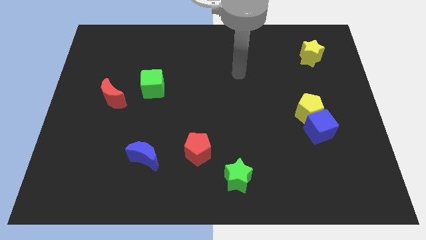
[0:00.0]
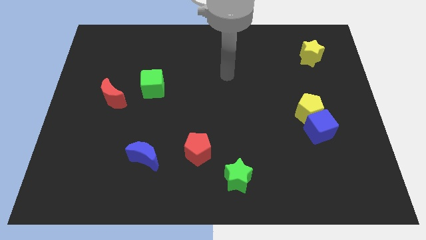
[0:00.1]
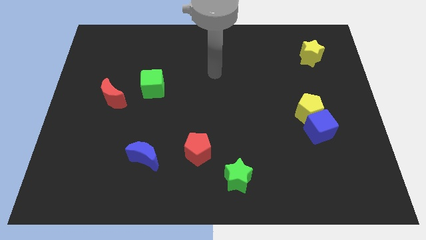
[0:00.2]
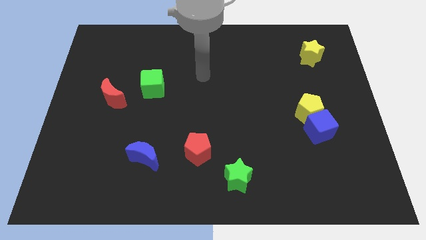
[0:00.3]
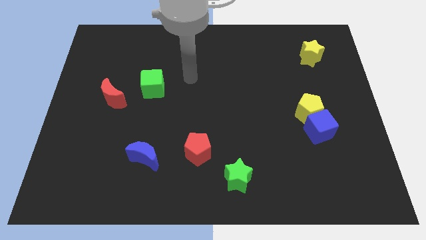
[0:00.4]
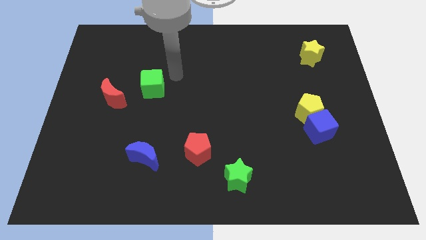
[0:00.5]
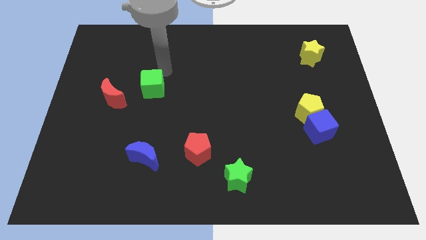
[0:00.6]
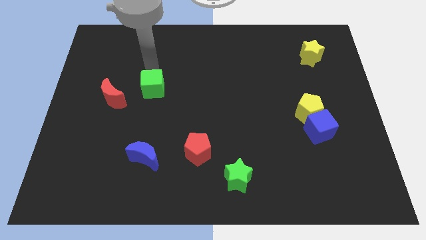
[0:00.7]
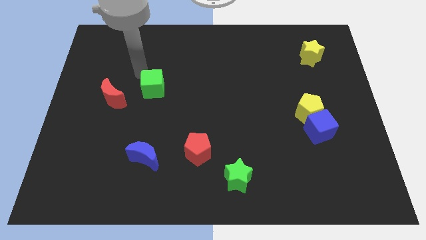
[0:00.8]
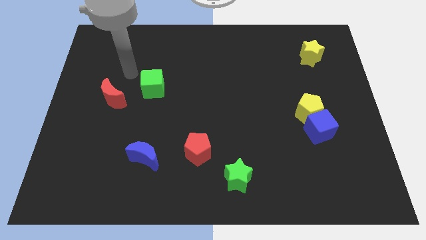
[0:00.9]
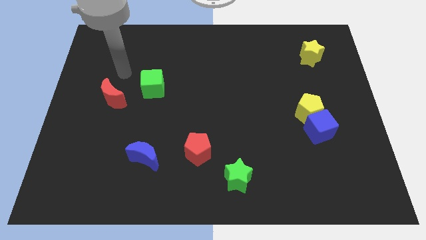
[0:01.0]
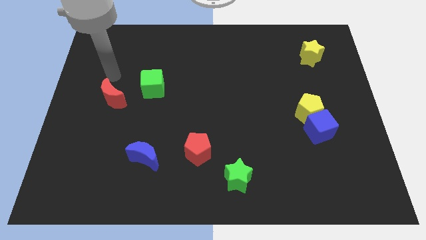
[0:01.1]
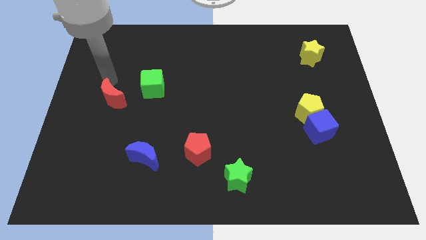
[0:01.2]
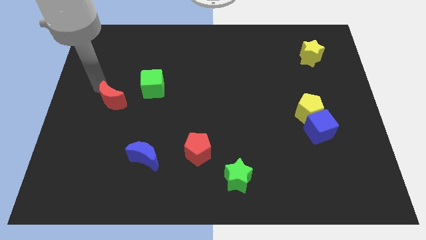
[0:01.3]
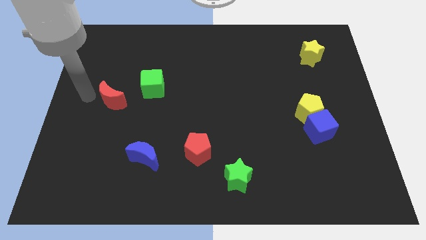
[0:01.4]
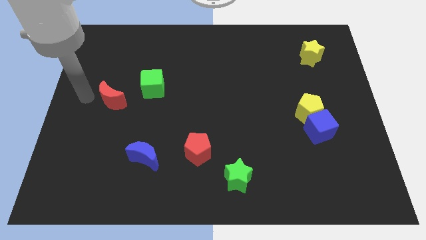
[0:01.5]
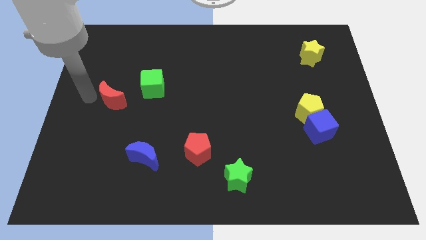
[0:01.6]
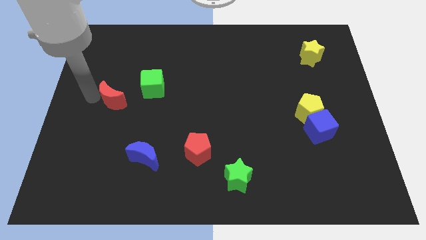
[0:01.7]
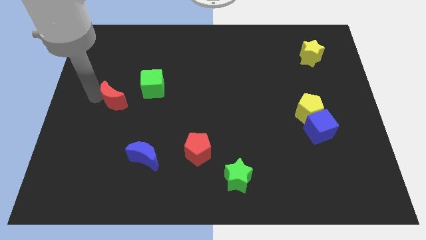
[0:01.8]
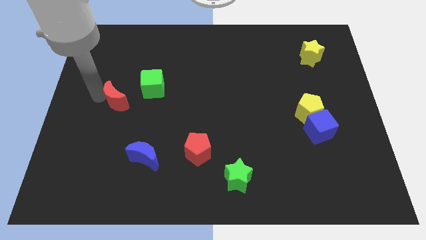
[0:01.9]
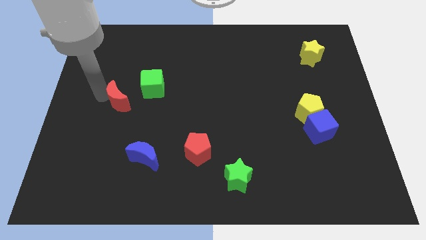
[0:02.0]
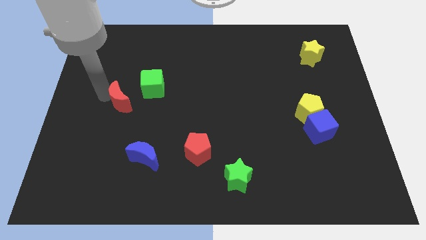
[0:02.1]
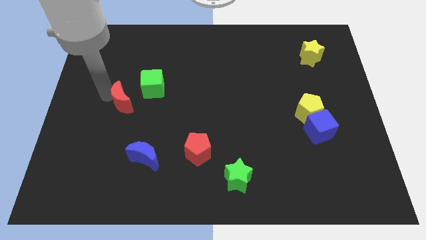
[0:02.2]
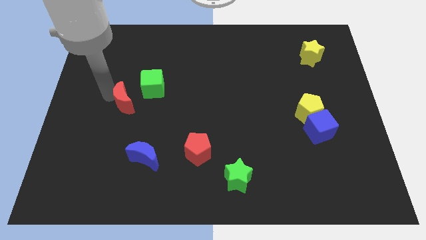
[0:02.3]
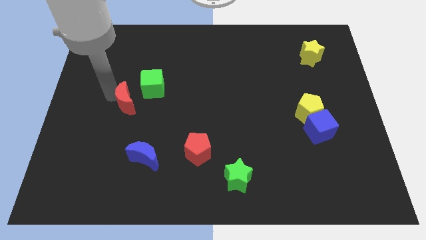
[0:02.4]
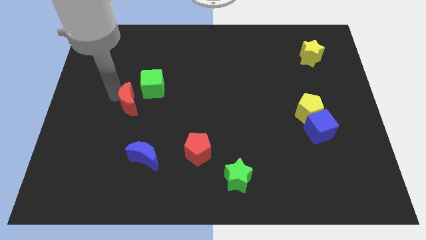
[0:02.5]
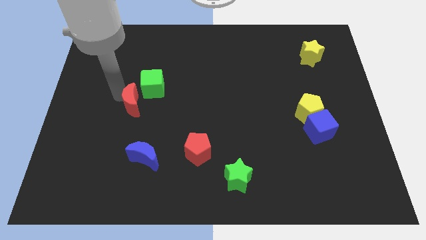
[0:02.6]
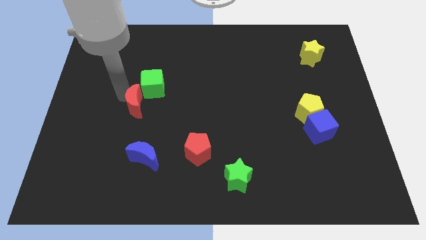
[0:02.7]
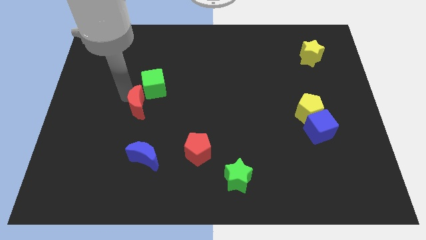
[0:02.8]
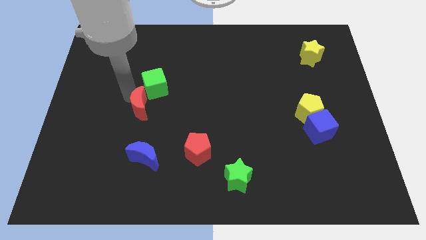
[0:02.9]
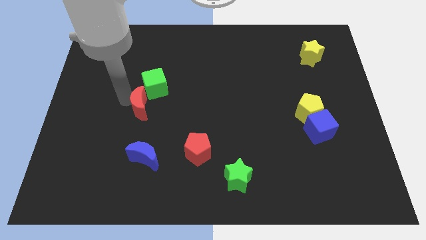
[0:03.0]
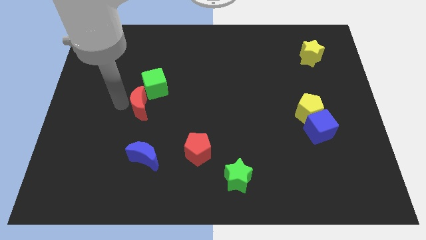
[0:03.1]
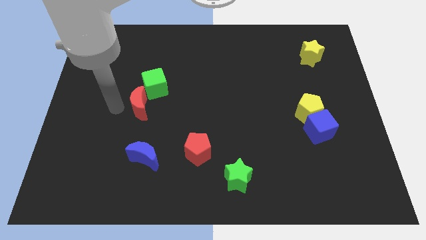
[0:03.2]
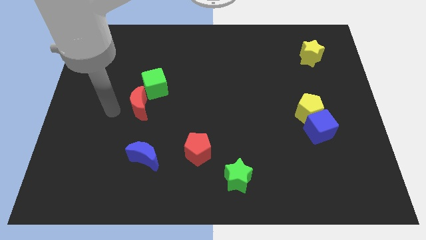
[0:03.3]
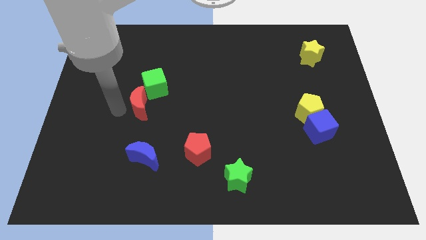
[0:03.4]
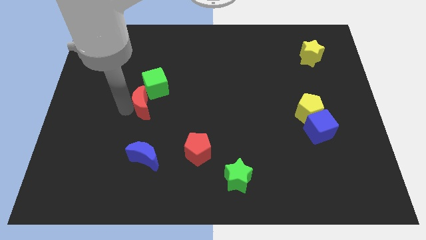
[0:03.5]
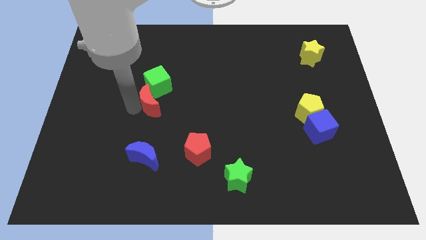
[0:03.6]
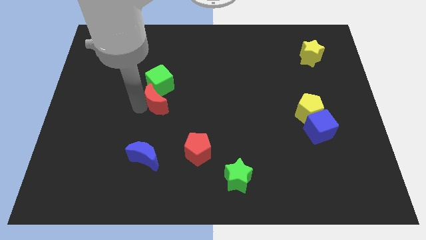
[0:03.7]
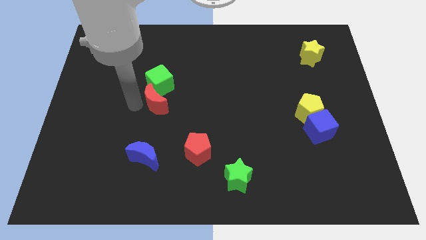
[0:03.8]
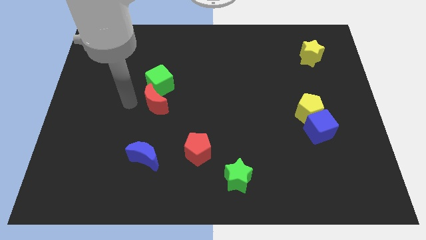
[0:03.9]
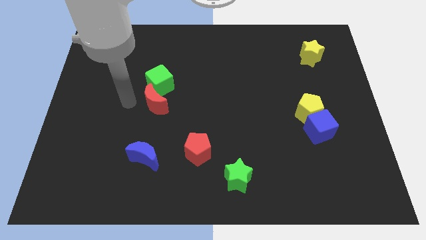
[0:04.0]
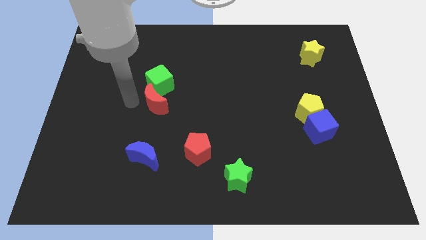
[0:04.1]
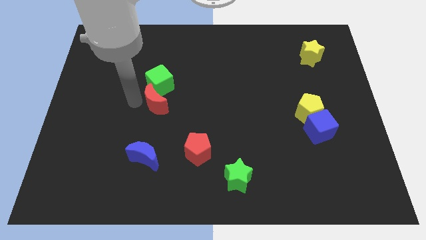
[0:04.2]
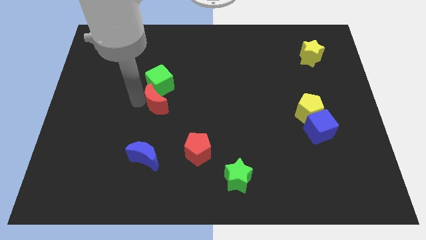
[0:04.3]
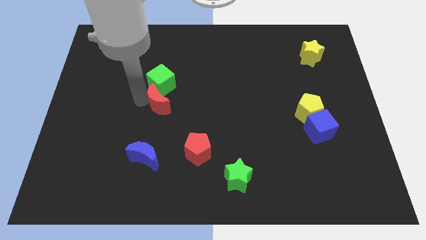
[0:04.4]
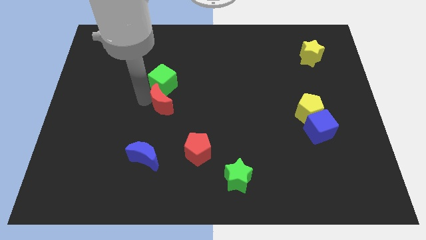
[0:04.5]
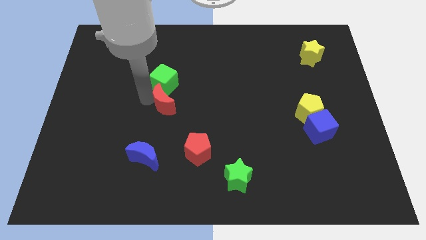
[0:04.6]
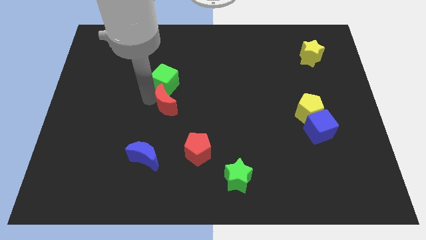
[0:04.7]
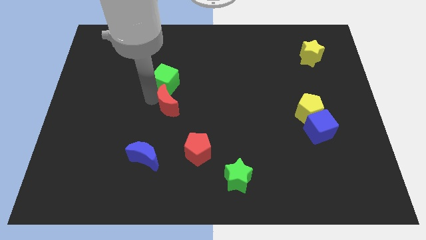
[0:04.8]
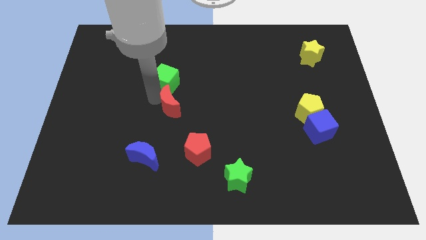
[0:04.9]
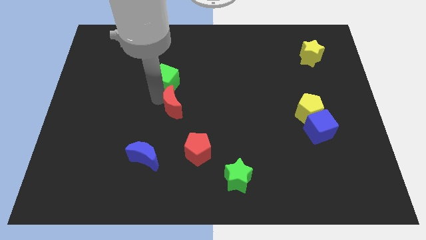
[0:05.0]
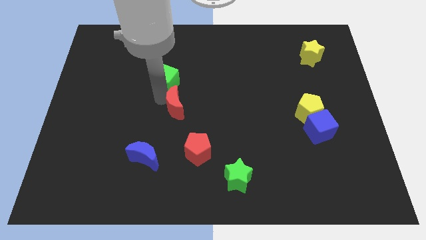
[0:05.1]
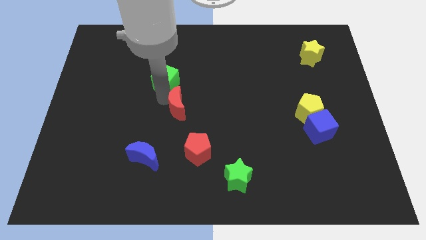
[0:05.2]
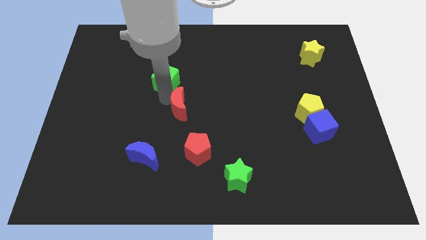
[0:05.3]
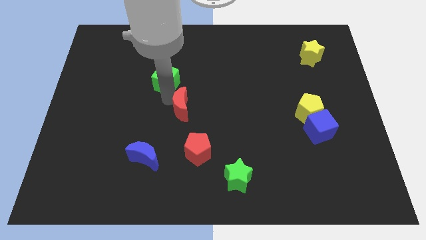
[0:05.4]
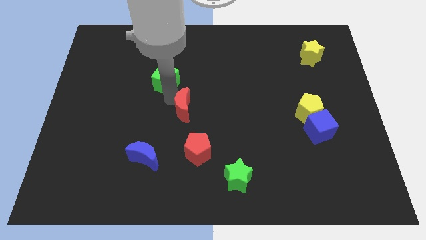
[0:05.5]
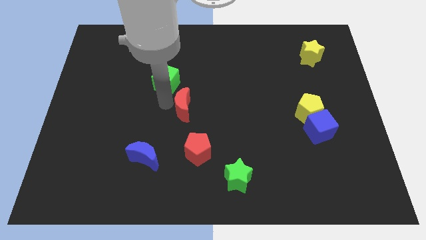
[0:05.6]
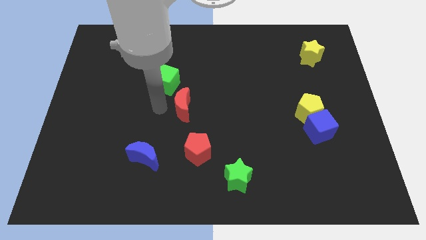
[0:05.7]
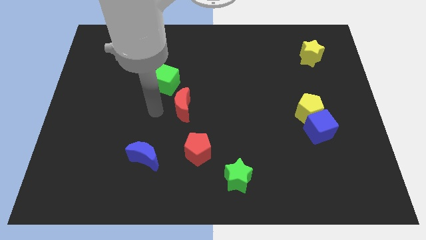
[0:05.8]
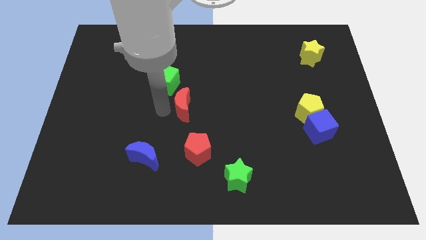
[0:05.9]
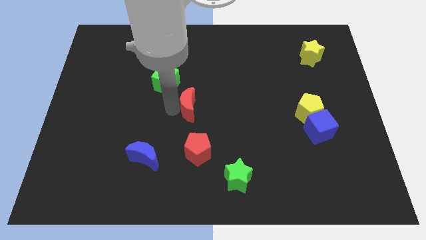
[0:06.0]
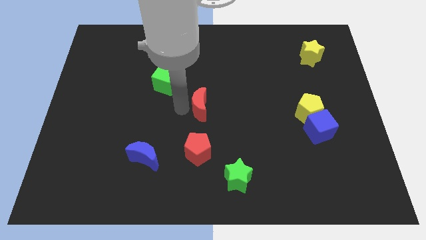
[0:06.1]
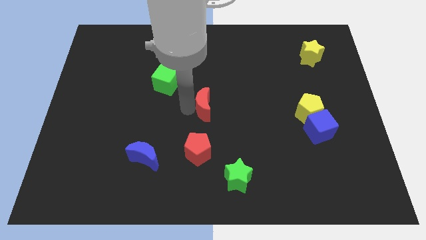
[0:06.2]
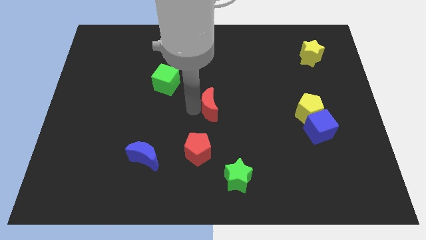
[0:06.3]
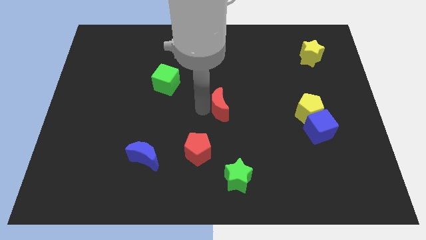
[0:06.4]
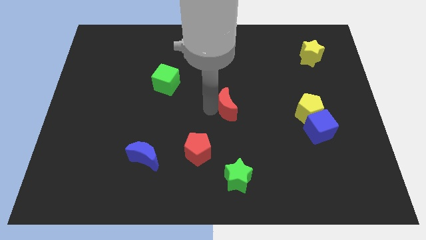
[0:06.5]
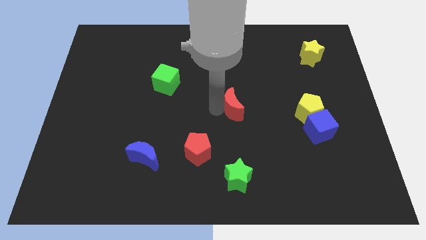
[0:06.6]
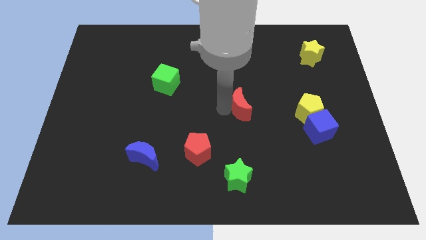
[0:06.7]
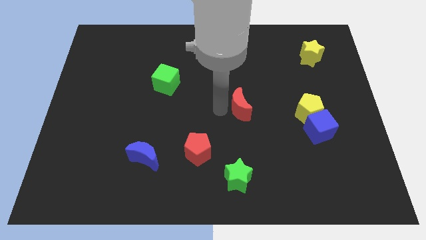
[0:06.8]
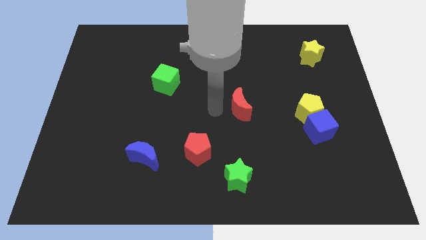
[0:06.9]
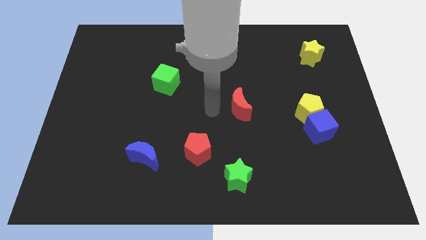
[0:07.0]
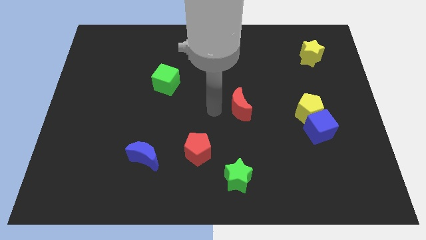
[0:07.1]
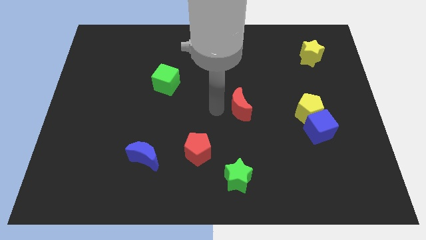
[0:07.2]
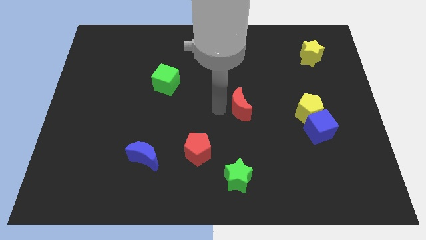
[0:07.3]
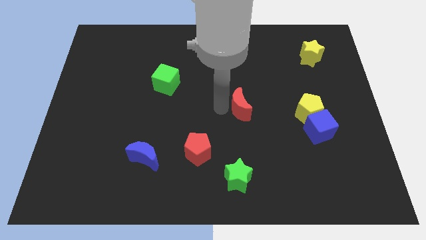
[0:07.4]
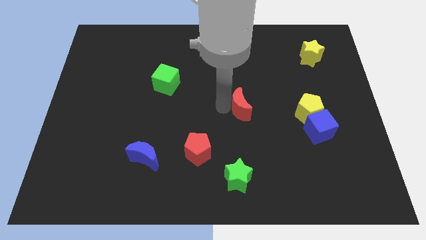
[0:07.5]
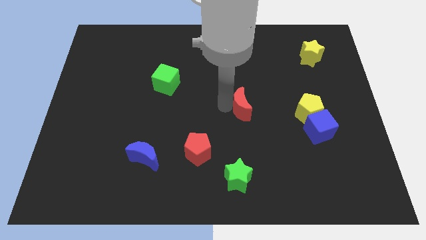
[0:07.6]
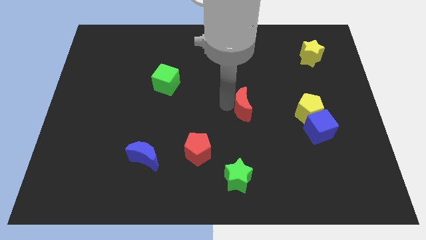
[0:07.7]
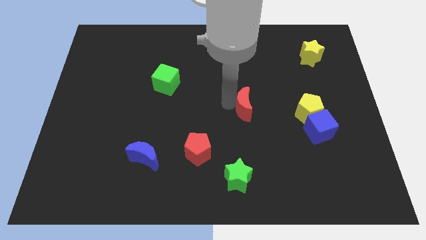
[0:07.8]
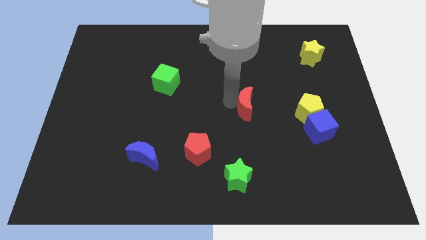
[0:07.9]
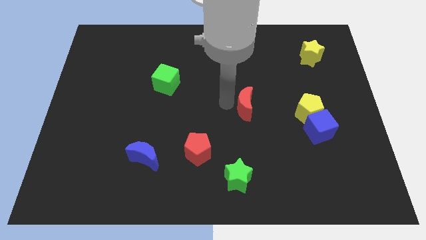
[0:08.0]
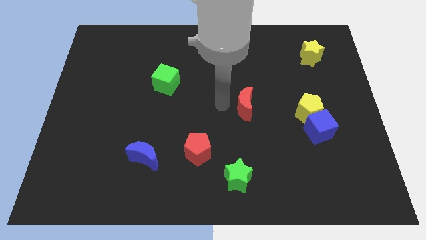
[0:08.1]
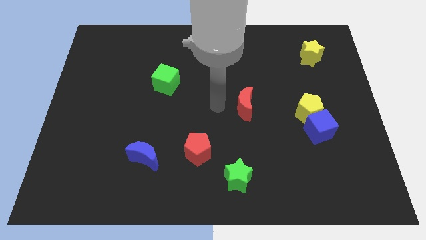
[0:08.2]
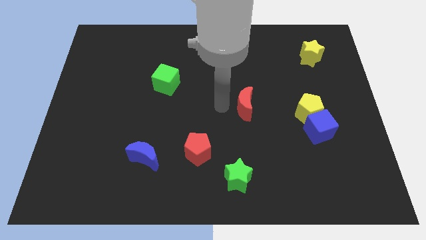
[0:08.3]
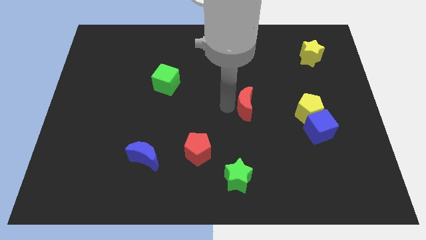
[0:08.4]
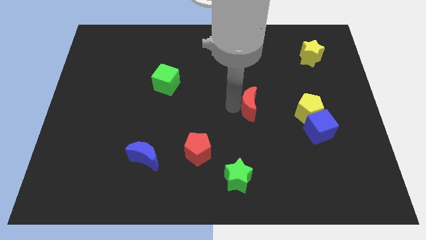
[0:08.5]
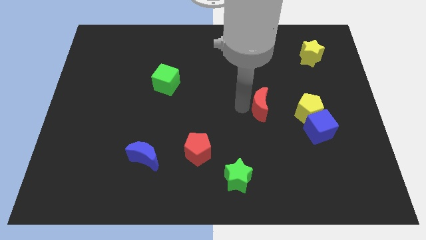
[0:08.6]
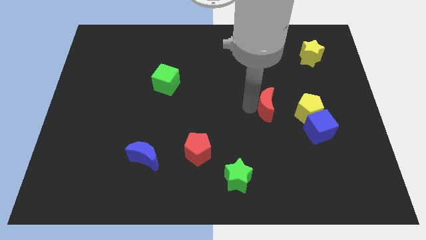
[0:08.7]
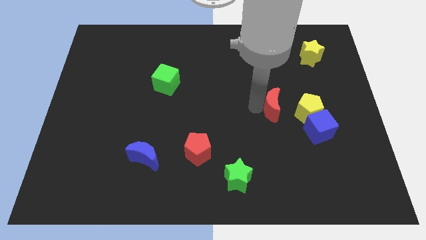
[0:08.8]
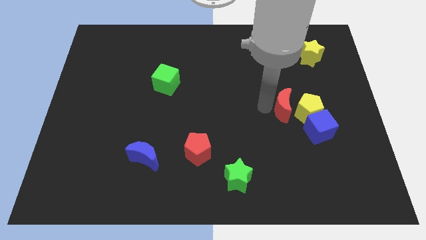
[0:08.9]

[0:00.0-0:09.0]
put the red moon towards the yellow pentagon
